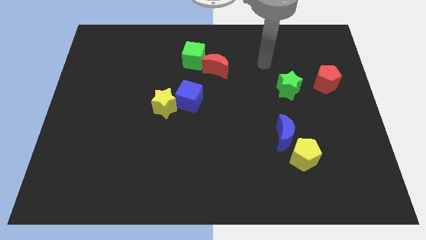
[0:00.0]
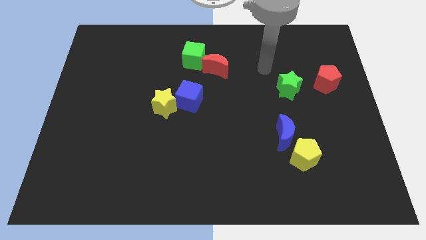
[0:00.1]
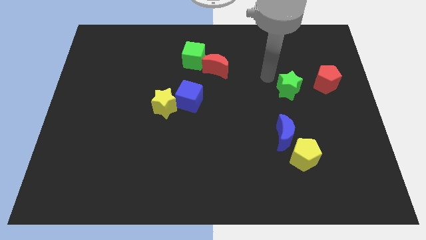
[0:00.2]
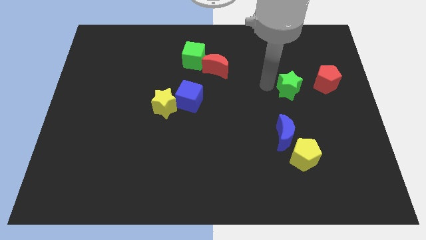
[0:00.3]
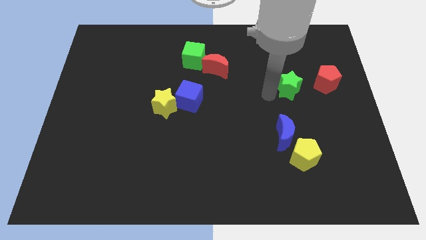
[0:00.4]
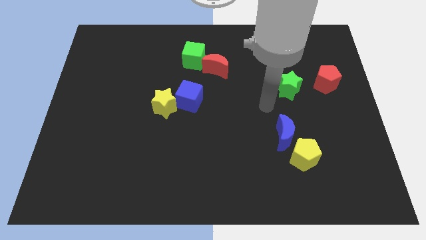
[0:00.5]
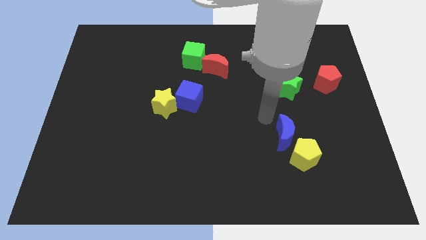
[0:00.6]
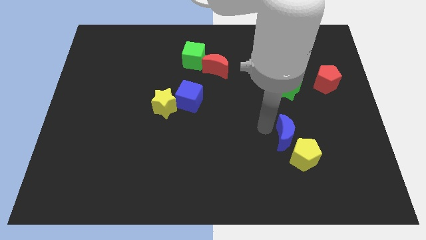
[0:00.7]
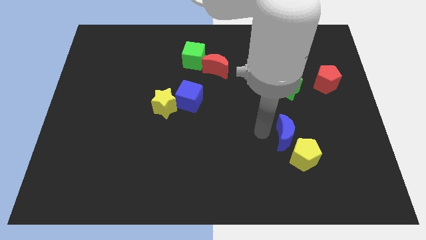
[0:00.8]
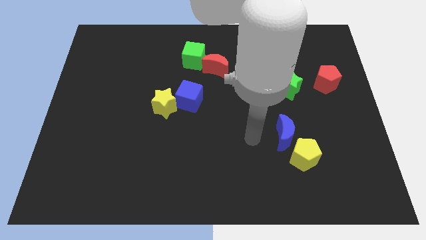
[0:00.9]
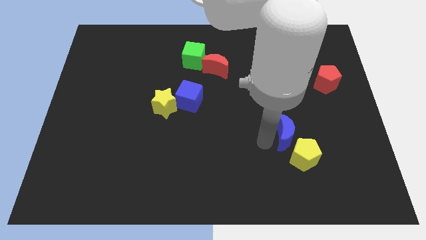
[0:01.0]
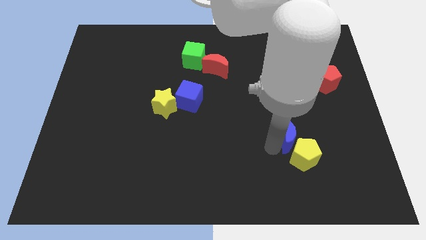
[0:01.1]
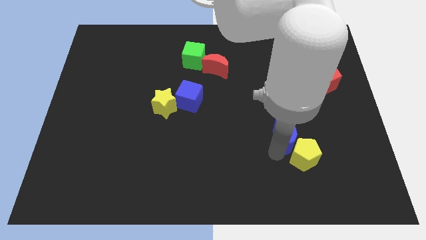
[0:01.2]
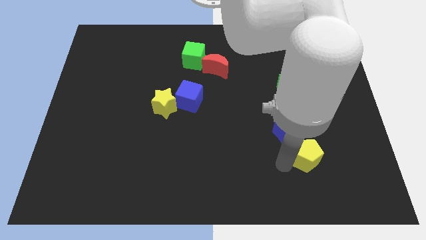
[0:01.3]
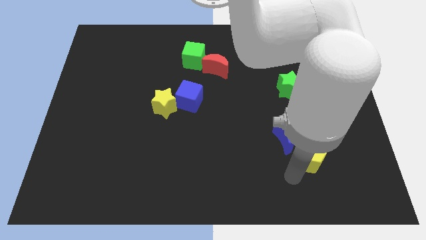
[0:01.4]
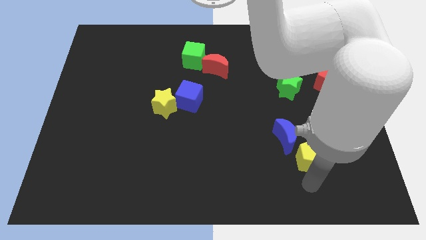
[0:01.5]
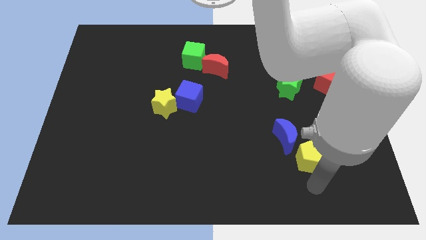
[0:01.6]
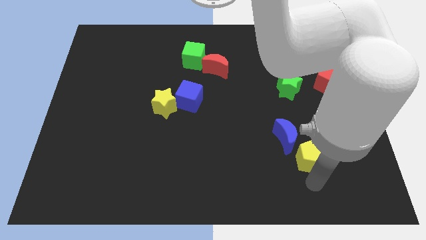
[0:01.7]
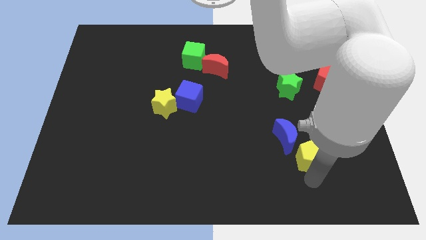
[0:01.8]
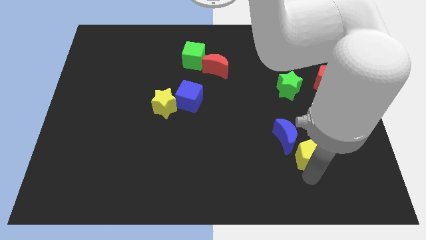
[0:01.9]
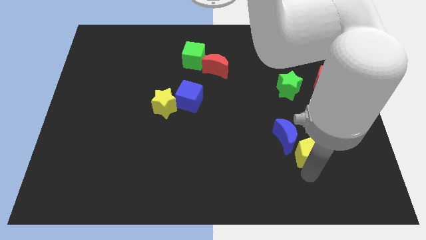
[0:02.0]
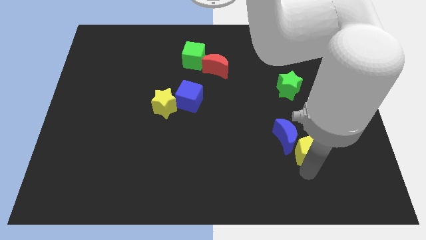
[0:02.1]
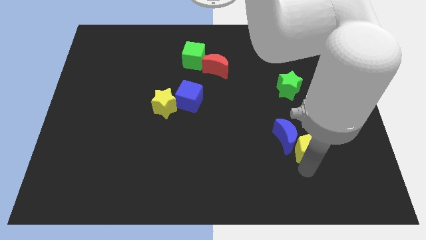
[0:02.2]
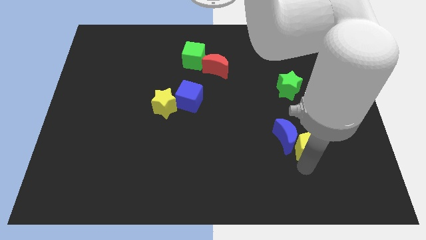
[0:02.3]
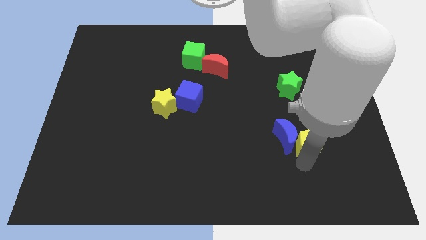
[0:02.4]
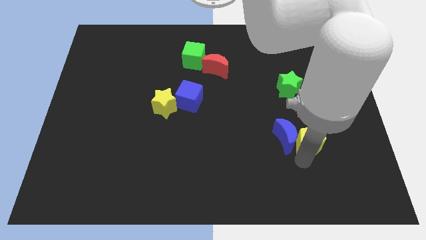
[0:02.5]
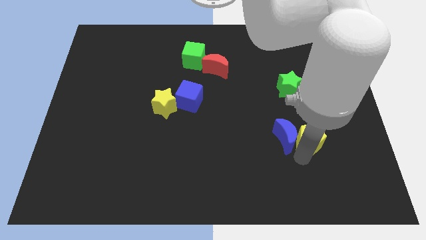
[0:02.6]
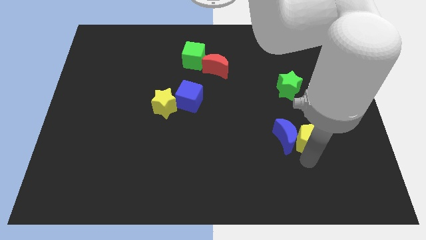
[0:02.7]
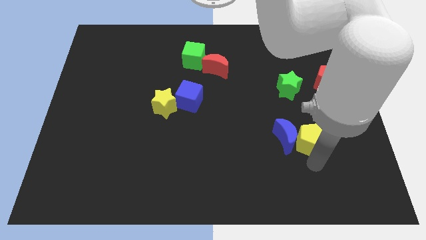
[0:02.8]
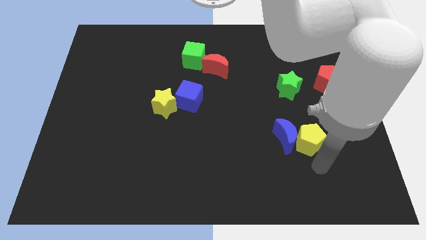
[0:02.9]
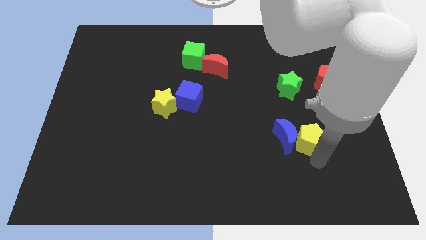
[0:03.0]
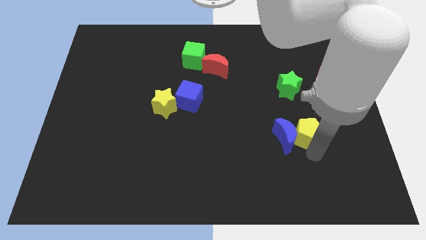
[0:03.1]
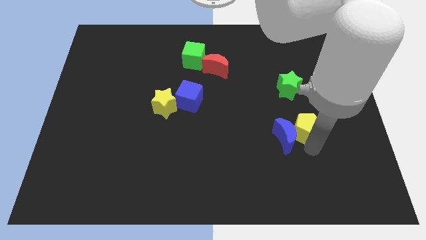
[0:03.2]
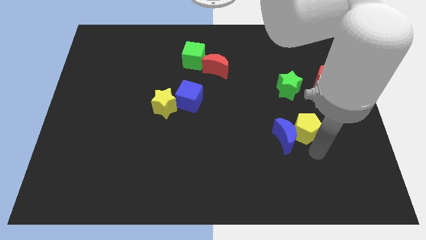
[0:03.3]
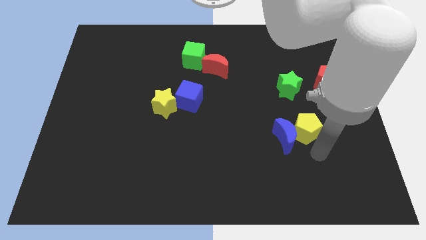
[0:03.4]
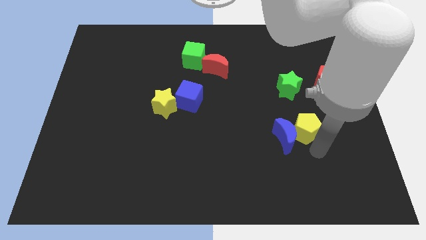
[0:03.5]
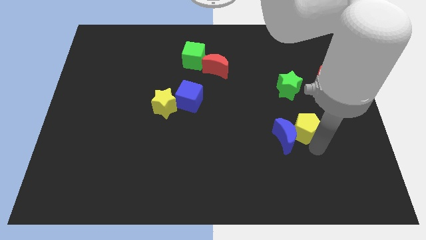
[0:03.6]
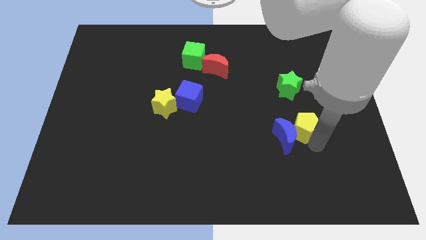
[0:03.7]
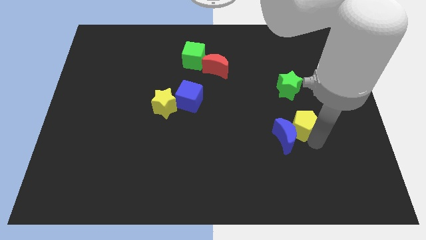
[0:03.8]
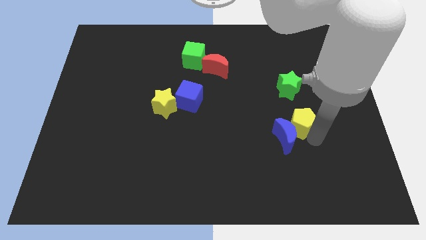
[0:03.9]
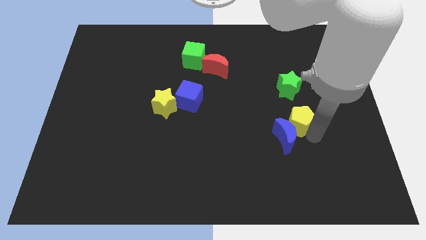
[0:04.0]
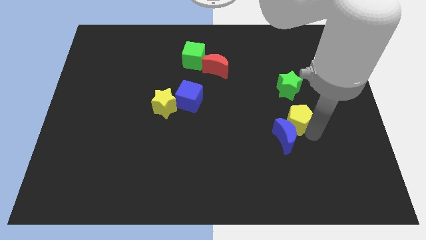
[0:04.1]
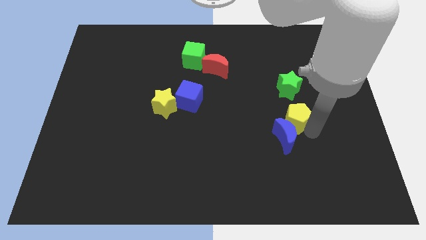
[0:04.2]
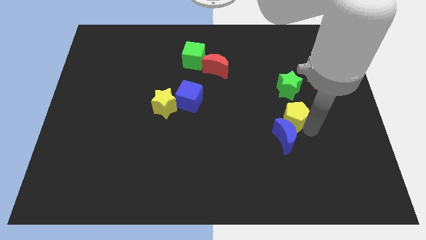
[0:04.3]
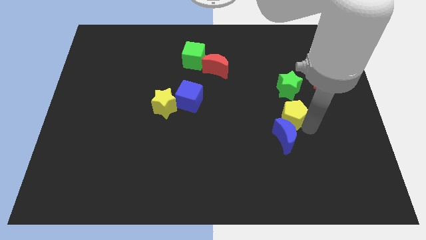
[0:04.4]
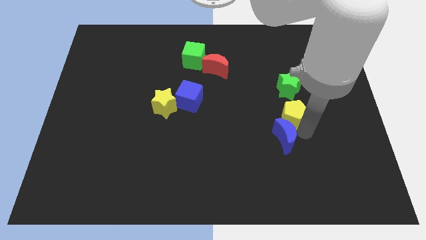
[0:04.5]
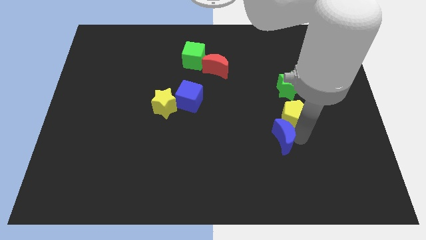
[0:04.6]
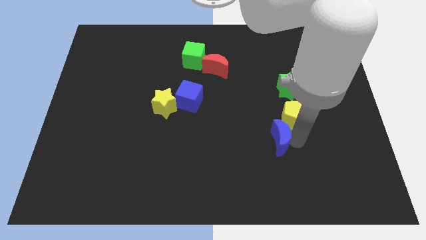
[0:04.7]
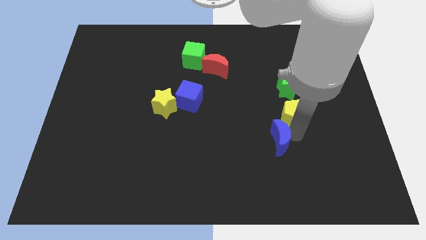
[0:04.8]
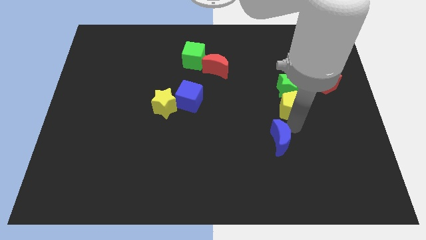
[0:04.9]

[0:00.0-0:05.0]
push the yellow pentagon next to the green star

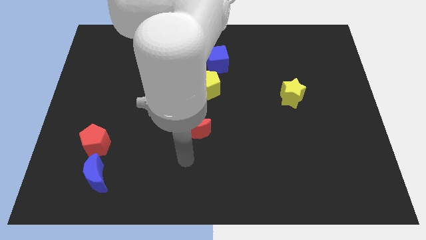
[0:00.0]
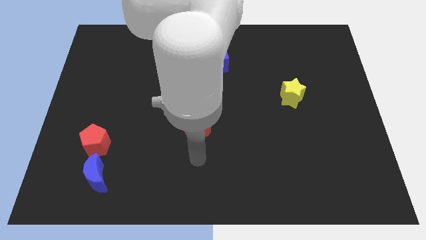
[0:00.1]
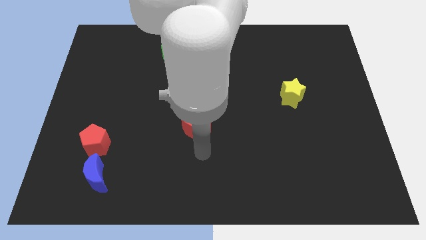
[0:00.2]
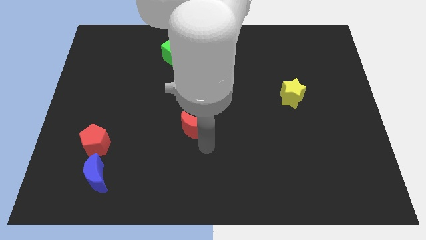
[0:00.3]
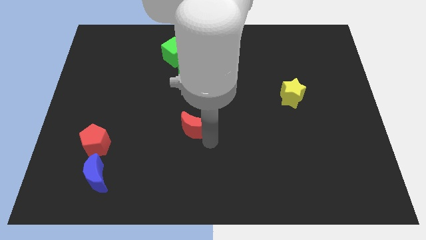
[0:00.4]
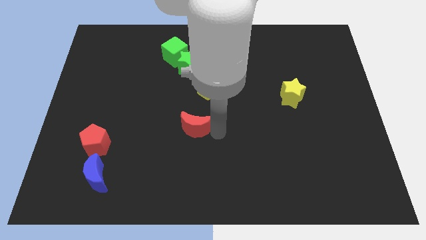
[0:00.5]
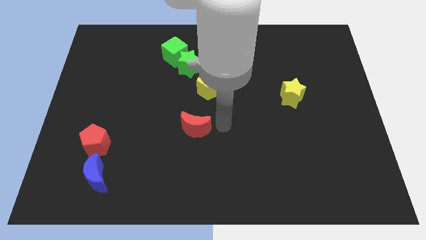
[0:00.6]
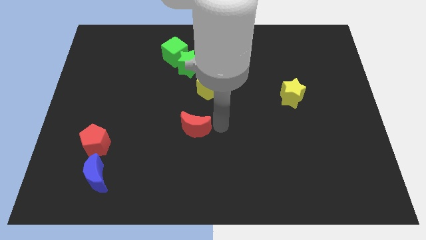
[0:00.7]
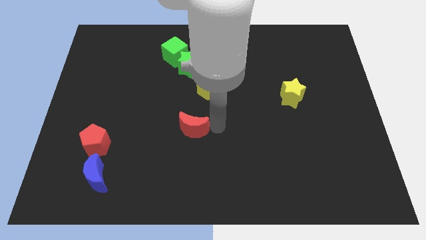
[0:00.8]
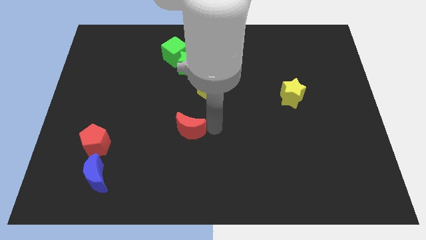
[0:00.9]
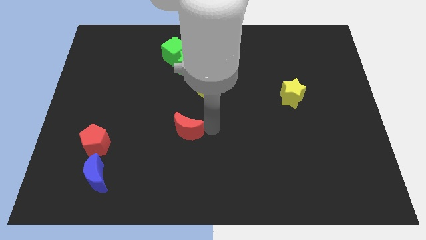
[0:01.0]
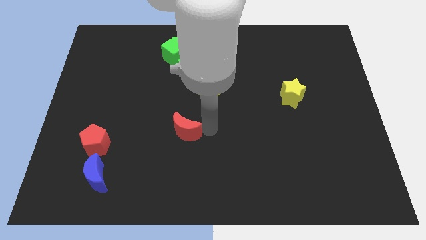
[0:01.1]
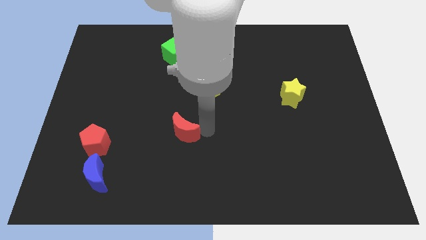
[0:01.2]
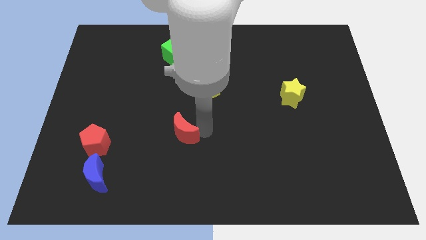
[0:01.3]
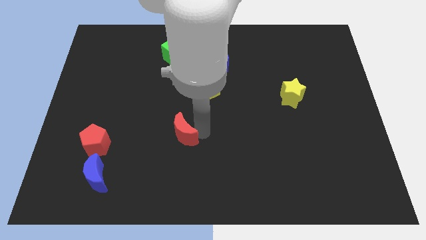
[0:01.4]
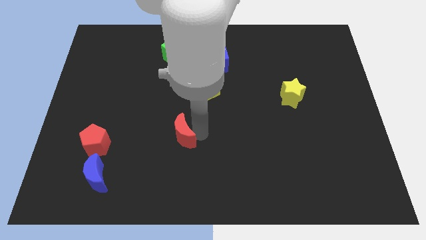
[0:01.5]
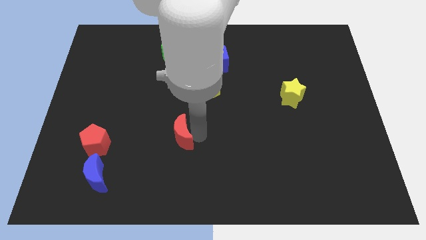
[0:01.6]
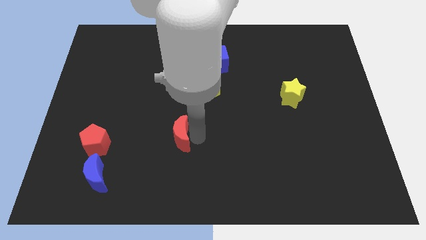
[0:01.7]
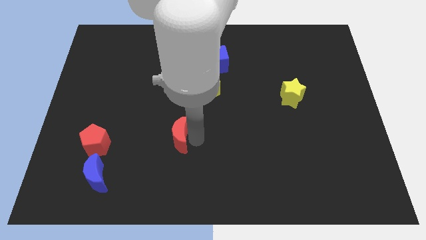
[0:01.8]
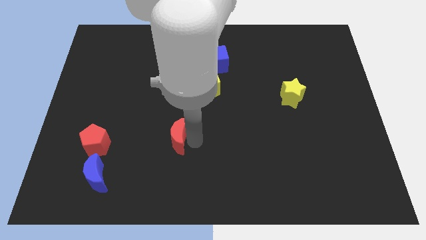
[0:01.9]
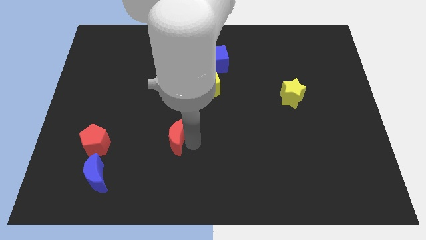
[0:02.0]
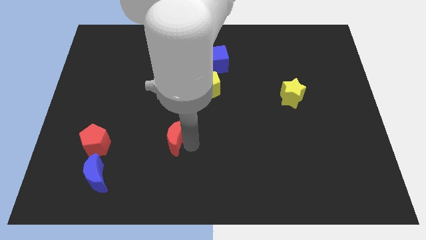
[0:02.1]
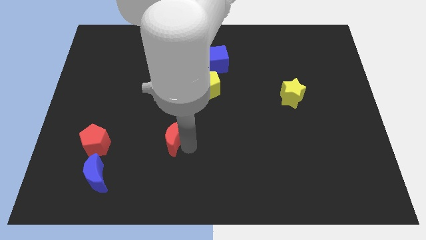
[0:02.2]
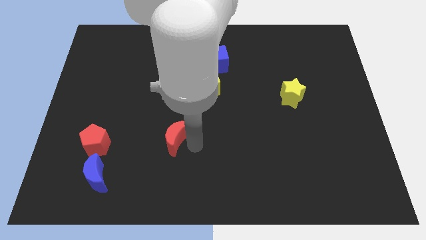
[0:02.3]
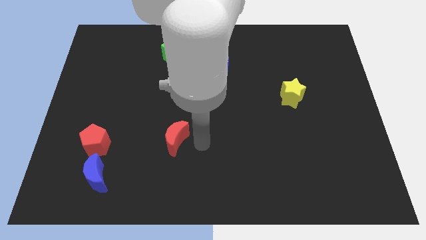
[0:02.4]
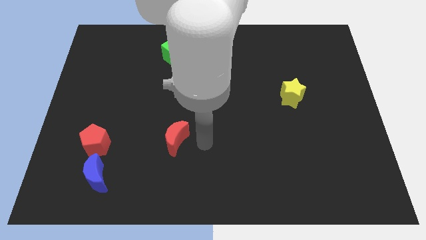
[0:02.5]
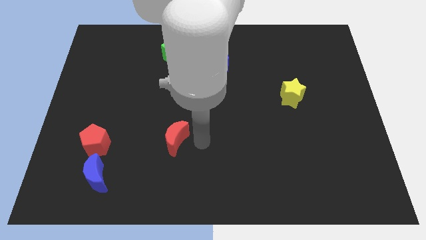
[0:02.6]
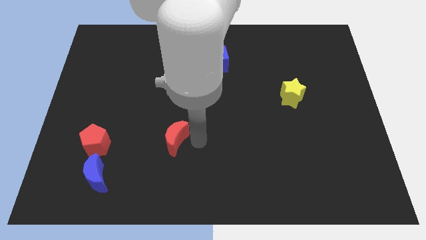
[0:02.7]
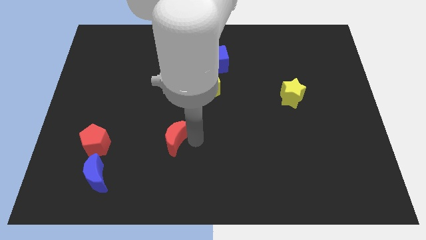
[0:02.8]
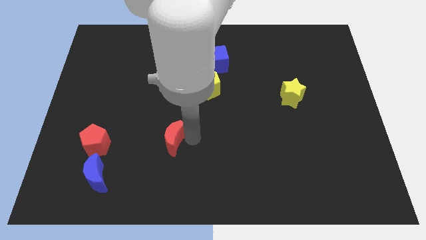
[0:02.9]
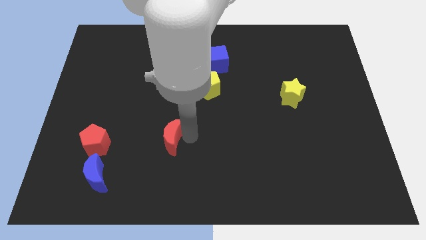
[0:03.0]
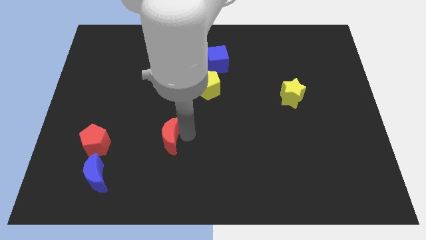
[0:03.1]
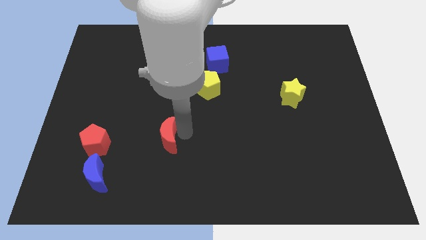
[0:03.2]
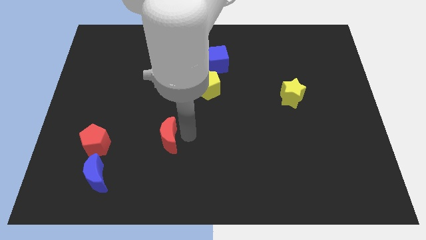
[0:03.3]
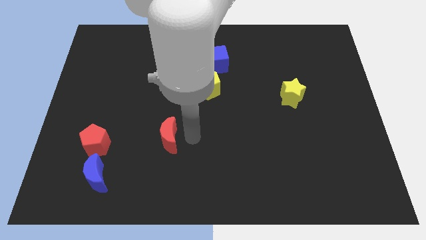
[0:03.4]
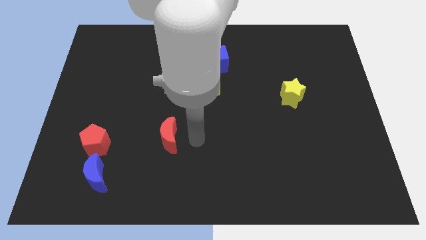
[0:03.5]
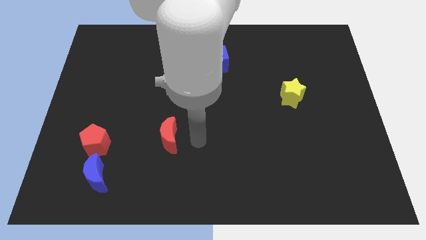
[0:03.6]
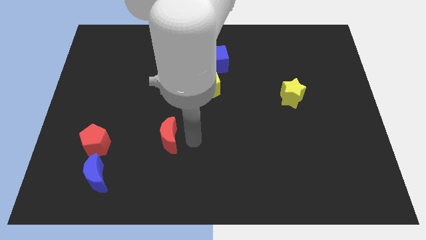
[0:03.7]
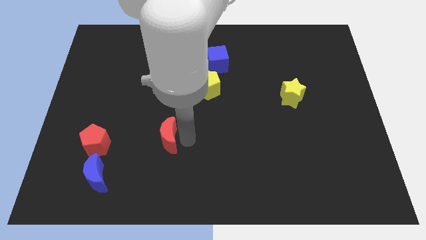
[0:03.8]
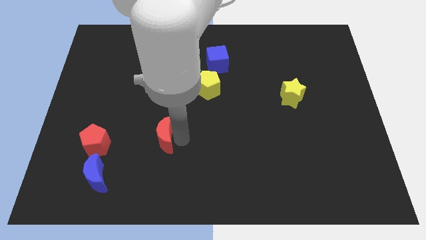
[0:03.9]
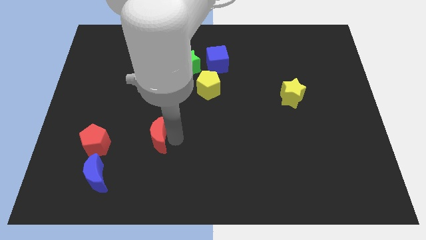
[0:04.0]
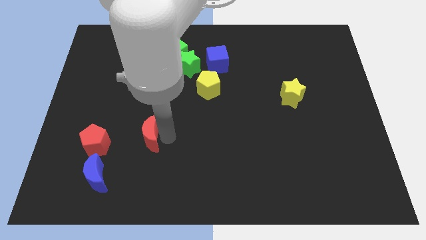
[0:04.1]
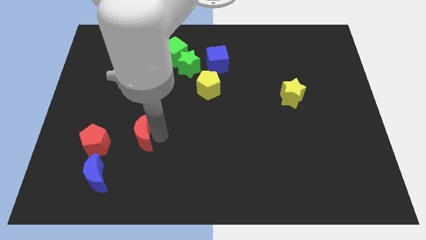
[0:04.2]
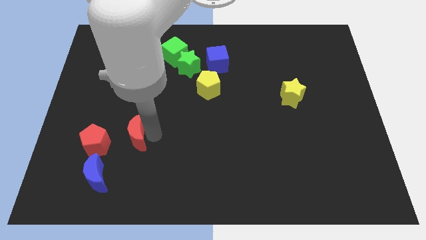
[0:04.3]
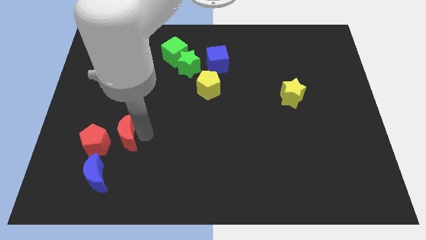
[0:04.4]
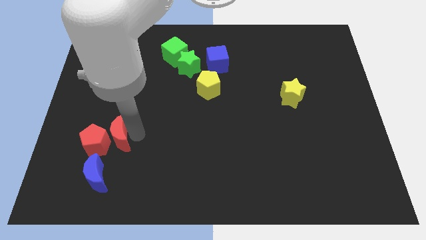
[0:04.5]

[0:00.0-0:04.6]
move the red moon next to the red pentagon
